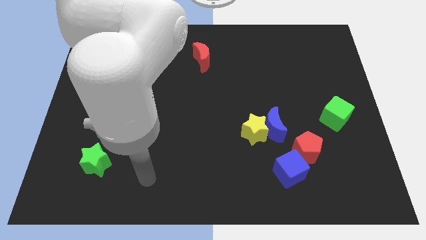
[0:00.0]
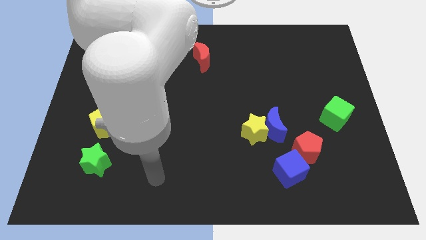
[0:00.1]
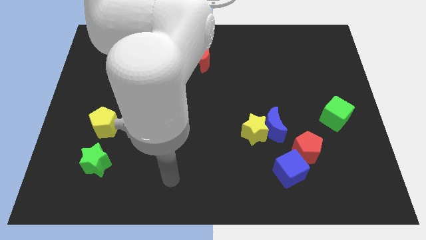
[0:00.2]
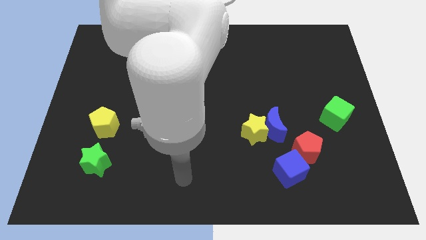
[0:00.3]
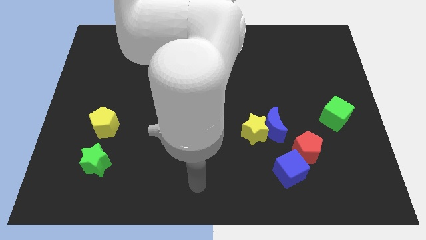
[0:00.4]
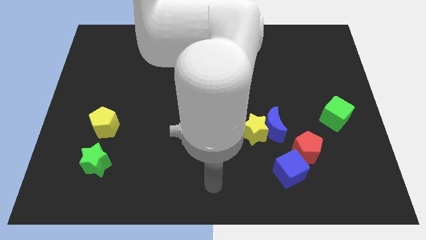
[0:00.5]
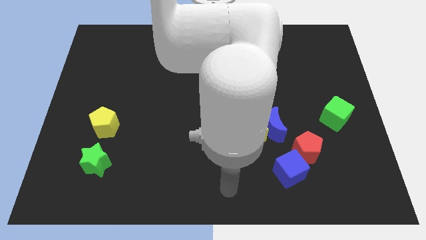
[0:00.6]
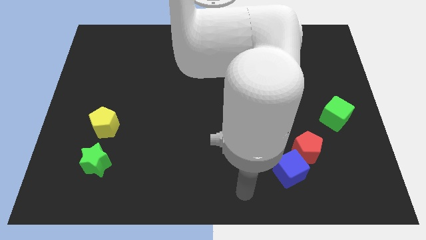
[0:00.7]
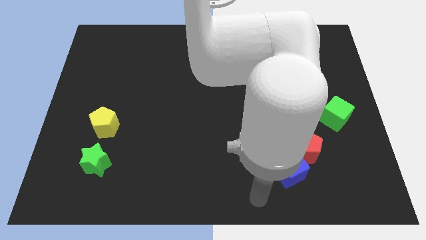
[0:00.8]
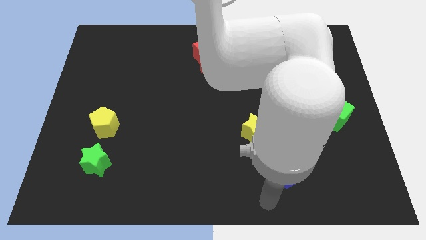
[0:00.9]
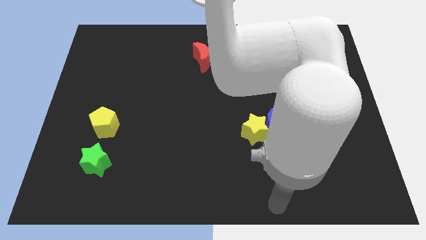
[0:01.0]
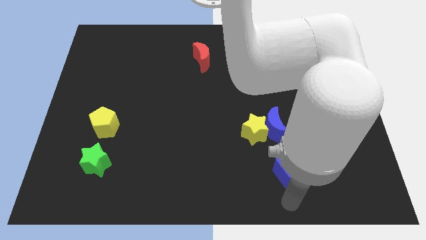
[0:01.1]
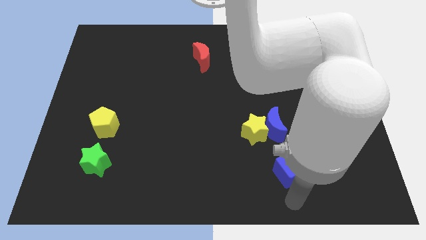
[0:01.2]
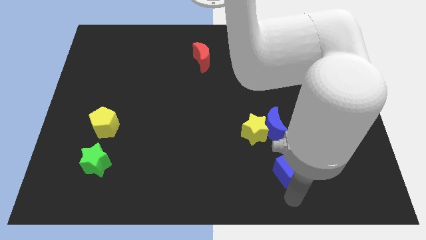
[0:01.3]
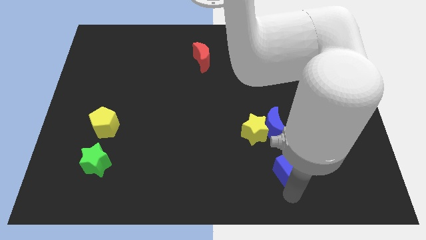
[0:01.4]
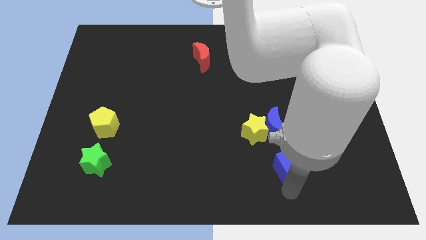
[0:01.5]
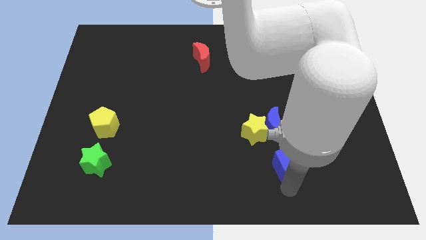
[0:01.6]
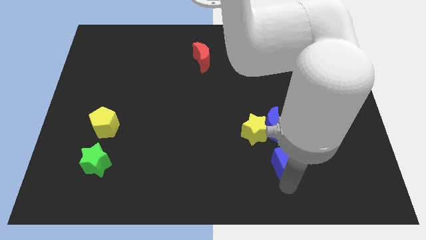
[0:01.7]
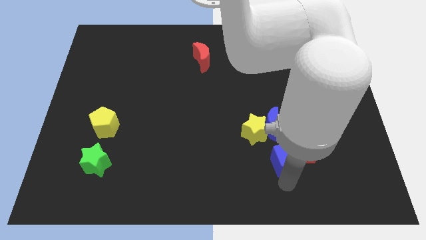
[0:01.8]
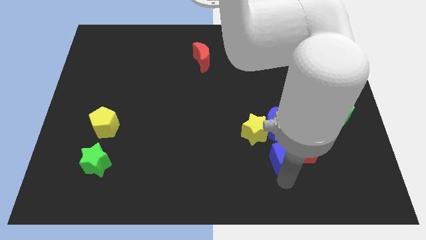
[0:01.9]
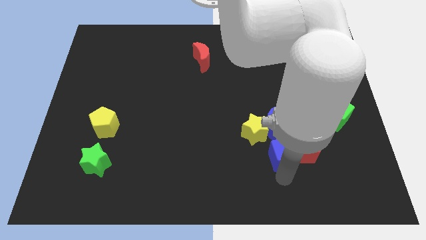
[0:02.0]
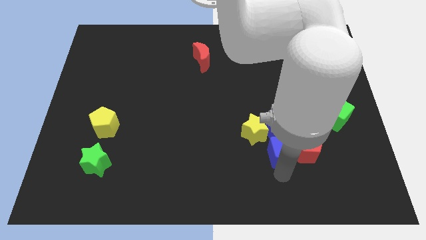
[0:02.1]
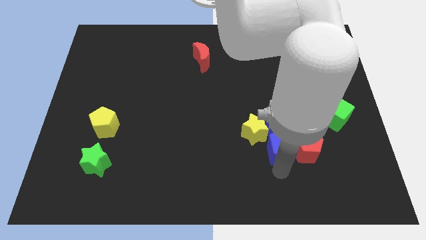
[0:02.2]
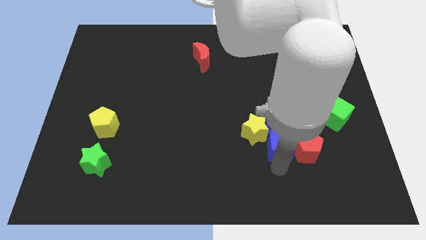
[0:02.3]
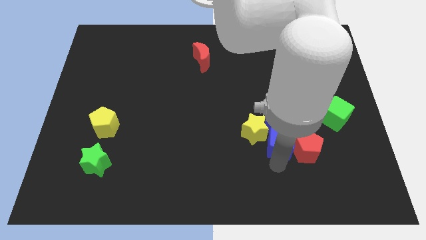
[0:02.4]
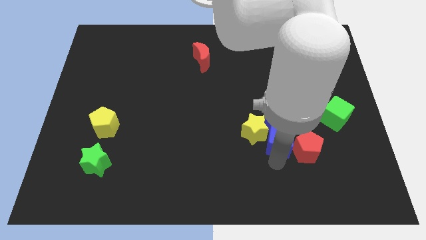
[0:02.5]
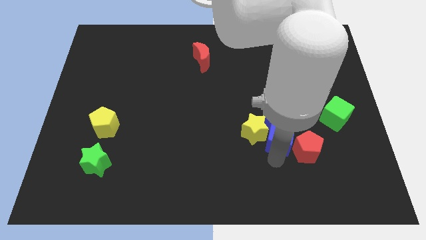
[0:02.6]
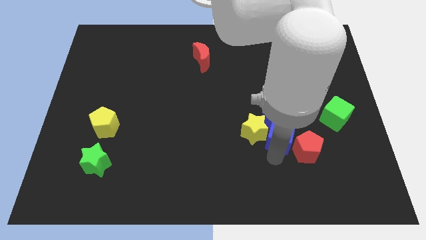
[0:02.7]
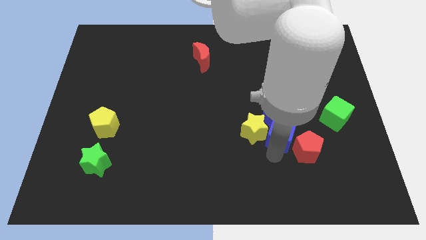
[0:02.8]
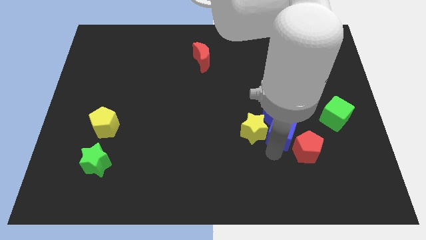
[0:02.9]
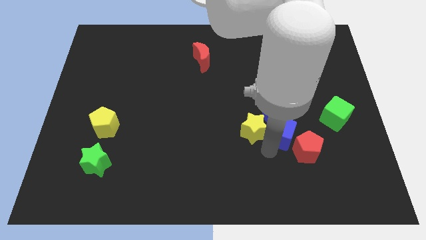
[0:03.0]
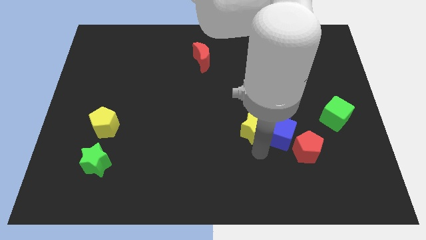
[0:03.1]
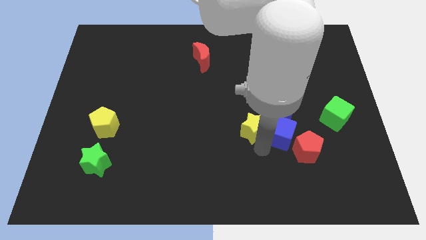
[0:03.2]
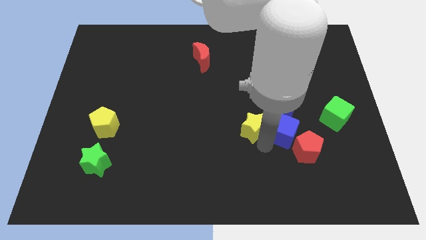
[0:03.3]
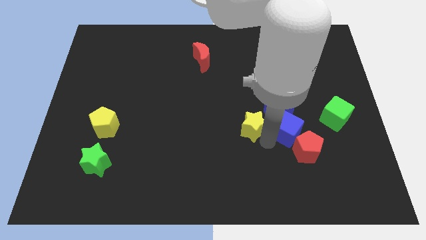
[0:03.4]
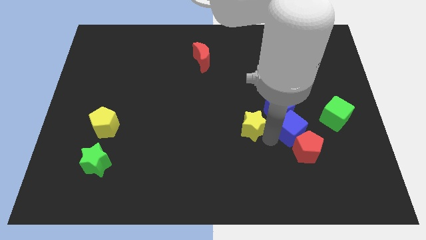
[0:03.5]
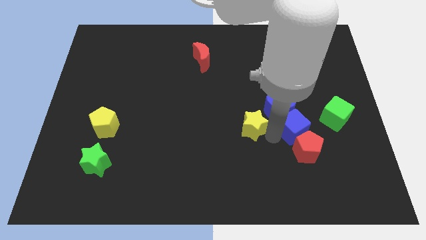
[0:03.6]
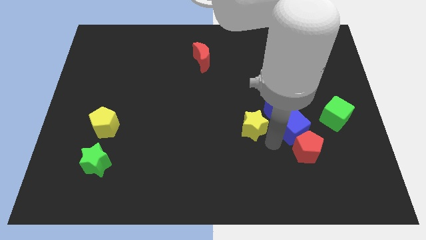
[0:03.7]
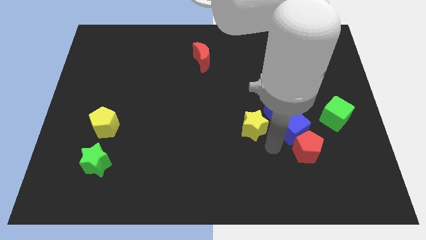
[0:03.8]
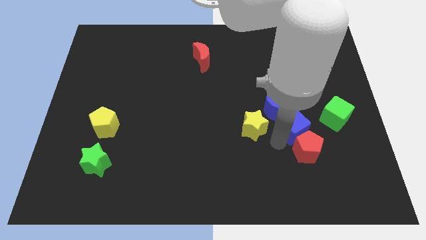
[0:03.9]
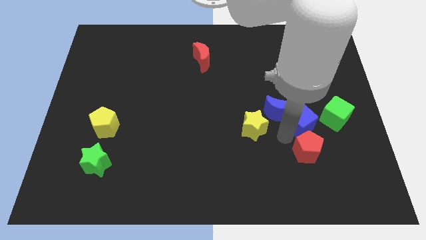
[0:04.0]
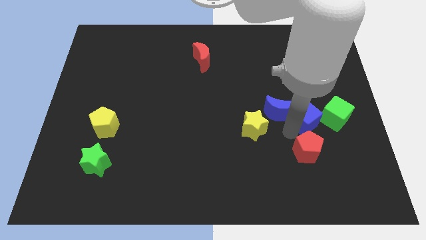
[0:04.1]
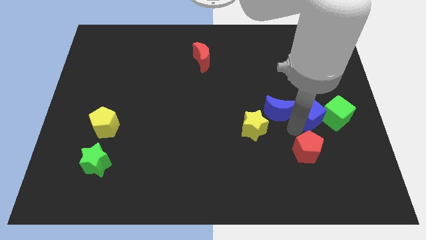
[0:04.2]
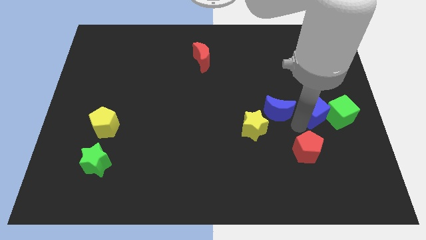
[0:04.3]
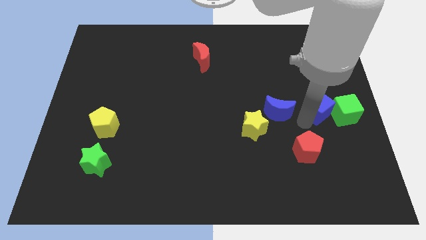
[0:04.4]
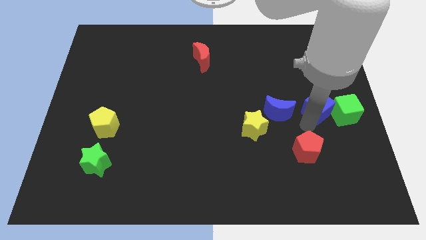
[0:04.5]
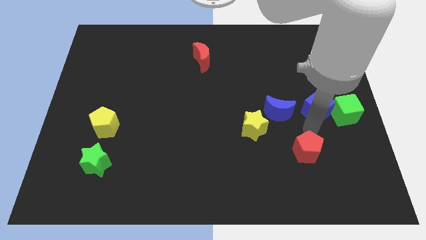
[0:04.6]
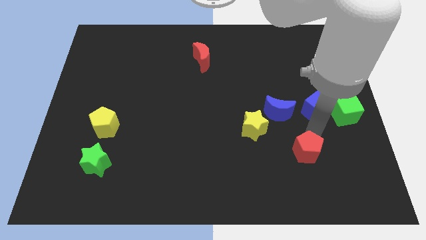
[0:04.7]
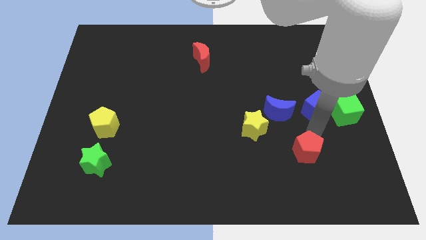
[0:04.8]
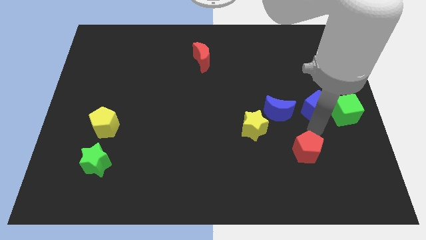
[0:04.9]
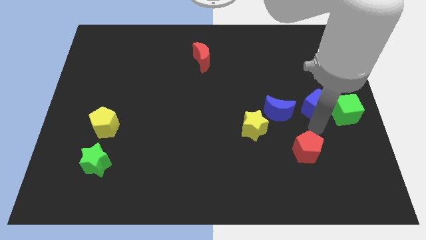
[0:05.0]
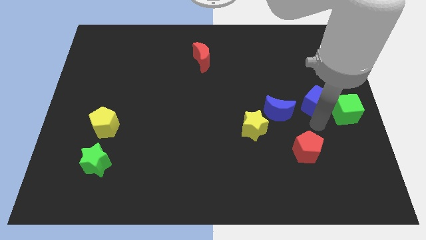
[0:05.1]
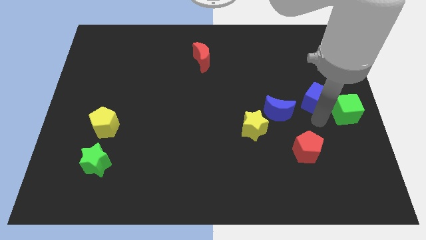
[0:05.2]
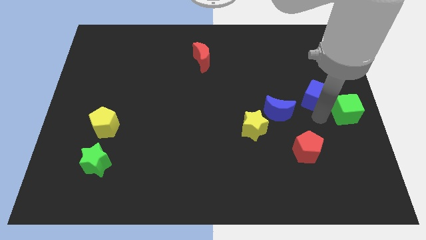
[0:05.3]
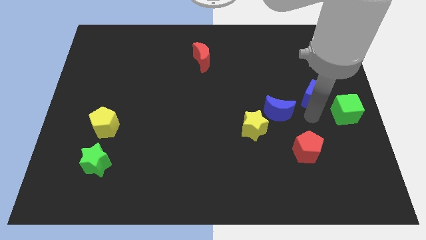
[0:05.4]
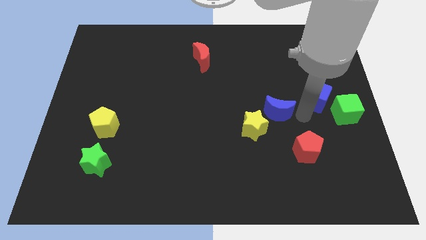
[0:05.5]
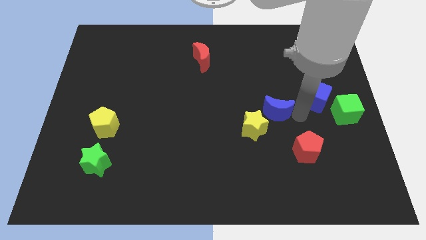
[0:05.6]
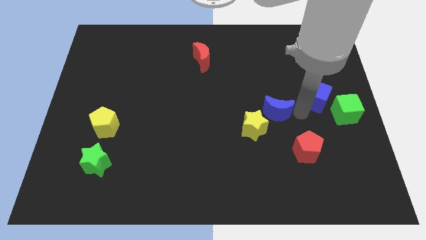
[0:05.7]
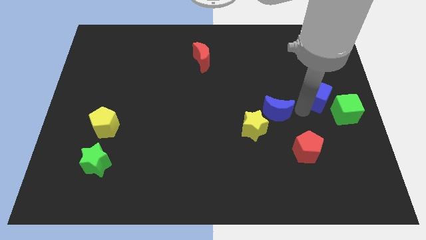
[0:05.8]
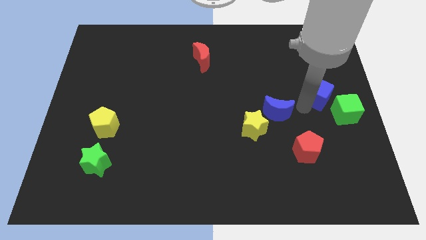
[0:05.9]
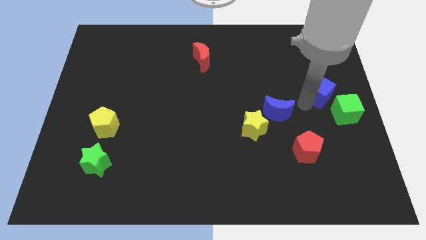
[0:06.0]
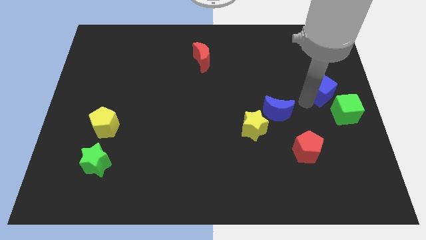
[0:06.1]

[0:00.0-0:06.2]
move the blue cube above the green cube

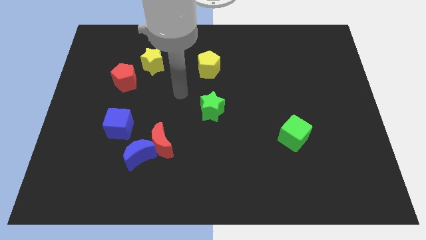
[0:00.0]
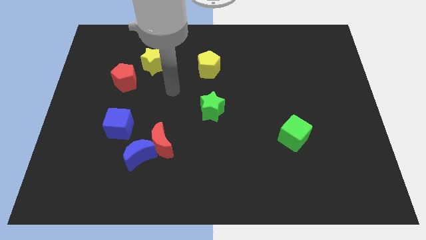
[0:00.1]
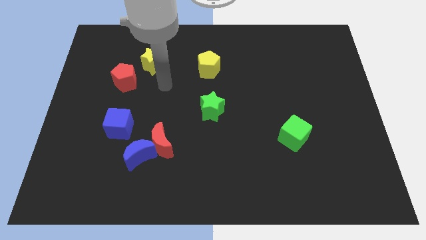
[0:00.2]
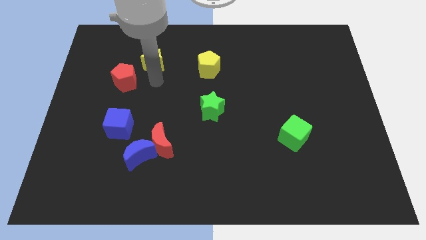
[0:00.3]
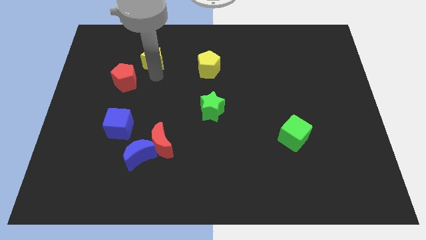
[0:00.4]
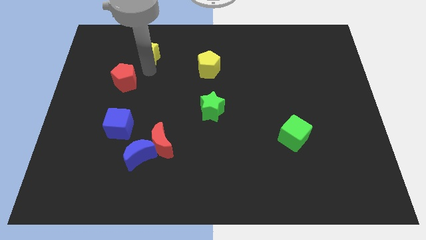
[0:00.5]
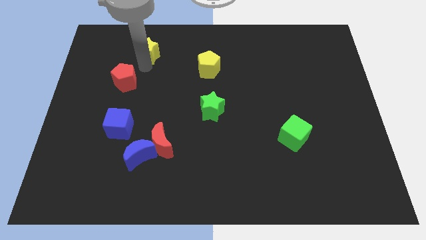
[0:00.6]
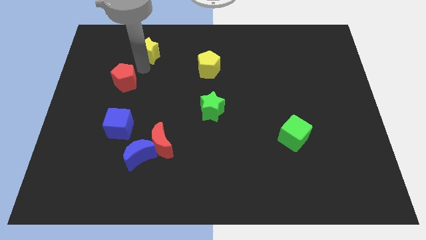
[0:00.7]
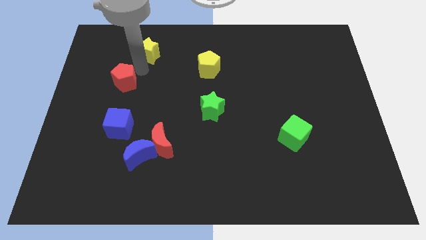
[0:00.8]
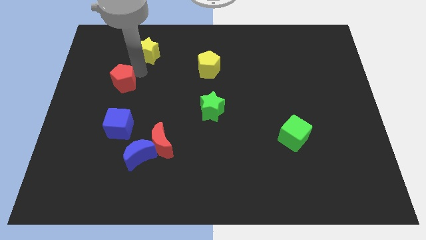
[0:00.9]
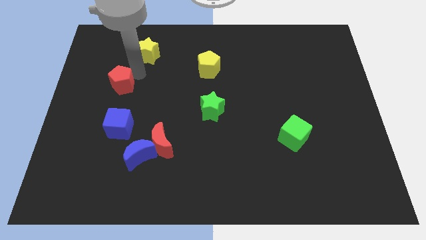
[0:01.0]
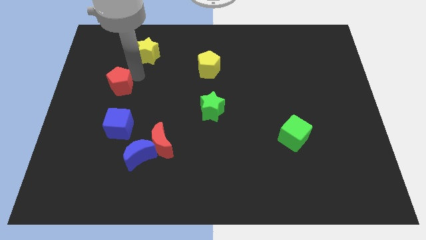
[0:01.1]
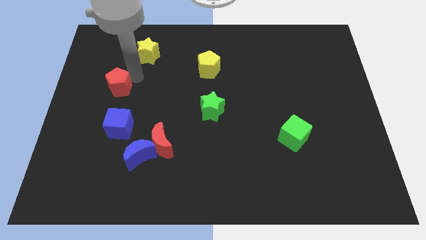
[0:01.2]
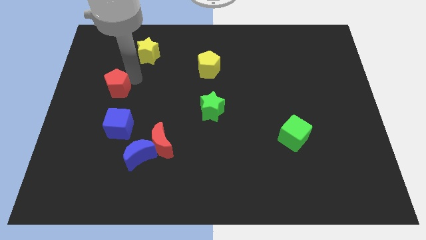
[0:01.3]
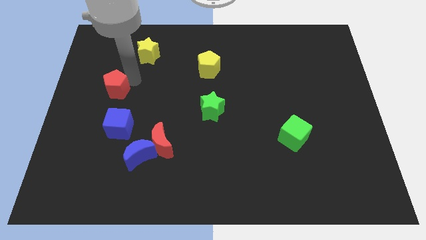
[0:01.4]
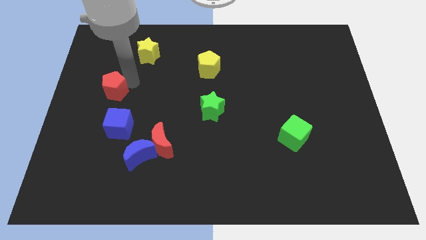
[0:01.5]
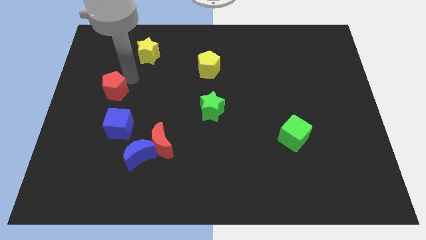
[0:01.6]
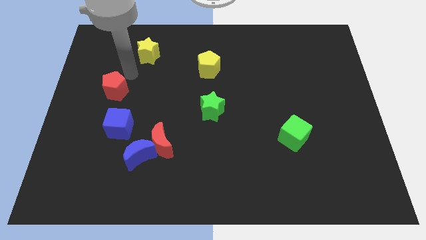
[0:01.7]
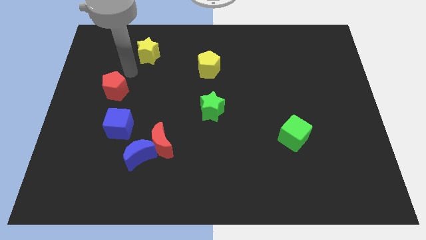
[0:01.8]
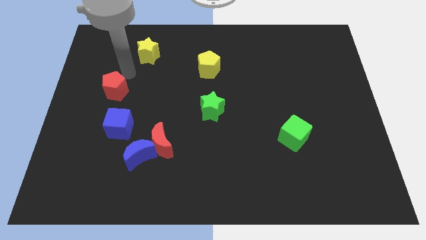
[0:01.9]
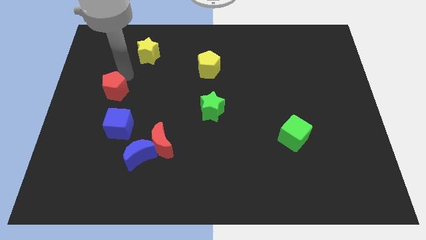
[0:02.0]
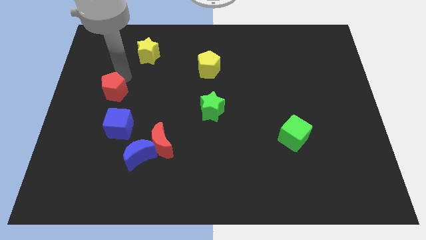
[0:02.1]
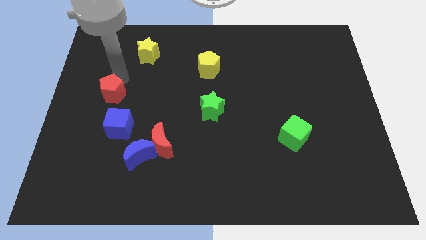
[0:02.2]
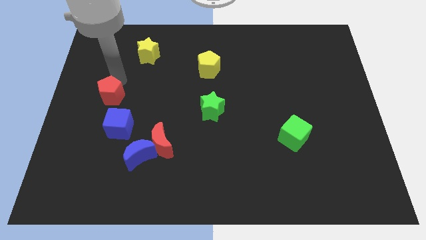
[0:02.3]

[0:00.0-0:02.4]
push the red pentagon to the top left side of the blue cube
